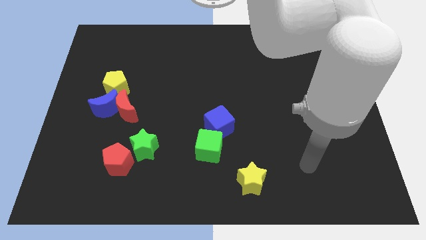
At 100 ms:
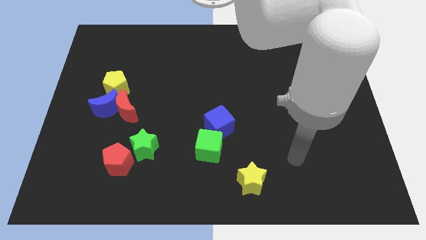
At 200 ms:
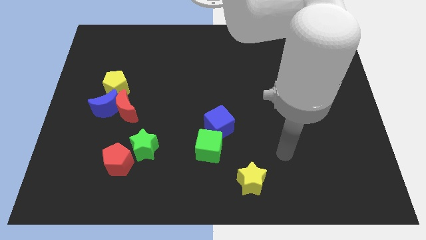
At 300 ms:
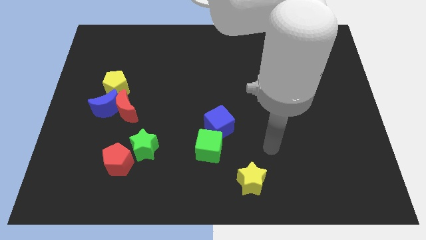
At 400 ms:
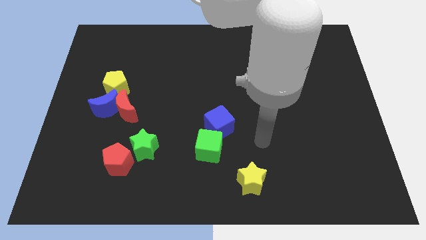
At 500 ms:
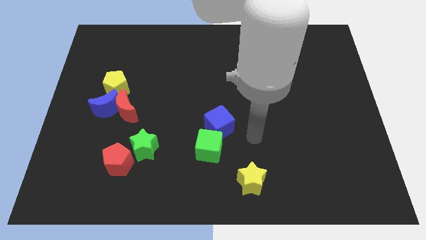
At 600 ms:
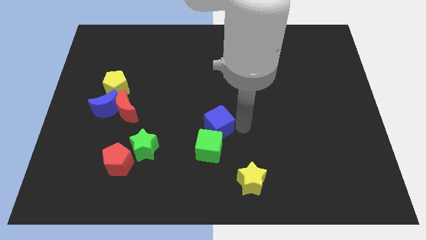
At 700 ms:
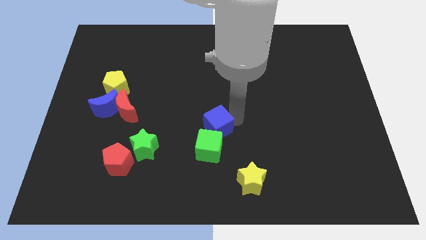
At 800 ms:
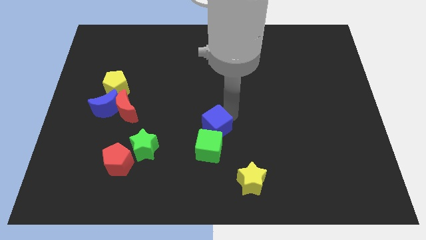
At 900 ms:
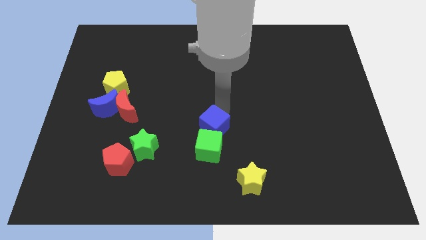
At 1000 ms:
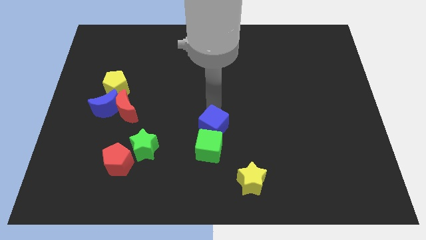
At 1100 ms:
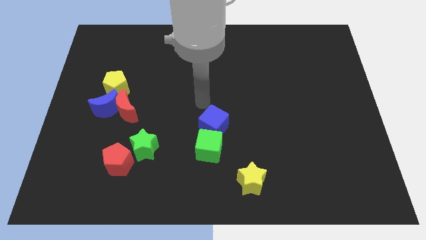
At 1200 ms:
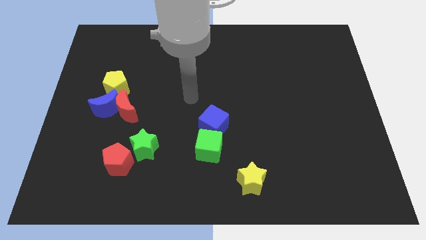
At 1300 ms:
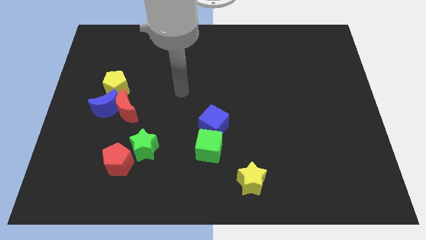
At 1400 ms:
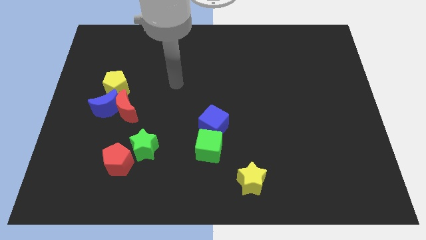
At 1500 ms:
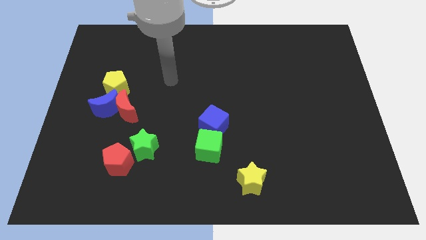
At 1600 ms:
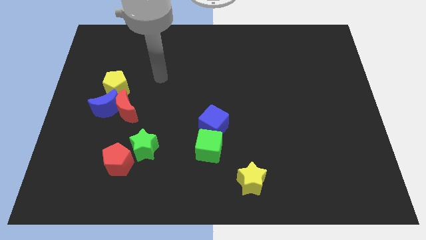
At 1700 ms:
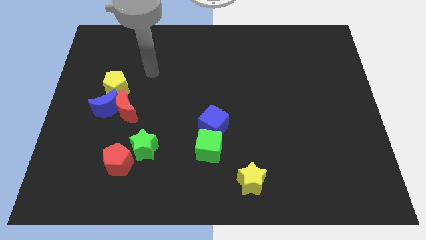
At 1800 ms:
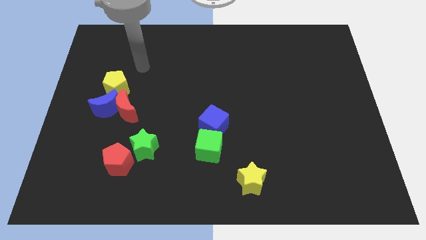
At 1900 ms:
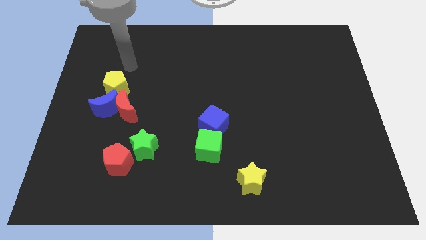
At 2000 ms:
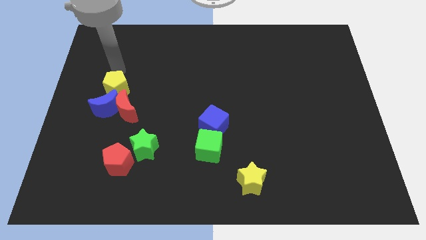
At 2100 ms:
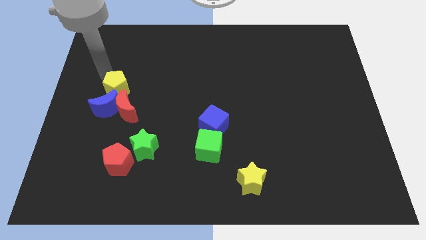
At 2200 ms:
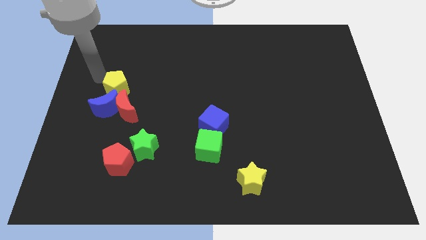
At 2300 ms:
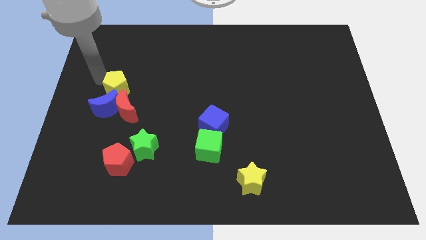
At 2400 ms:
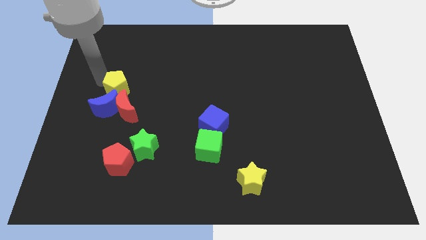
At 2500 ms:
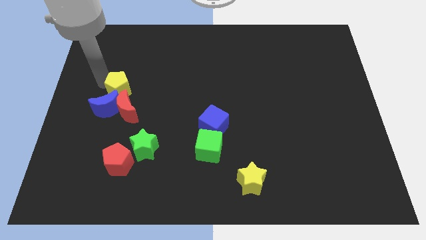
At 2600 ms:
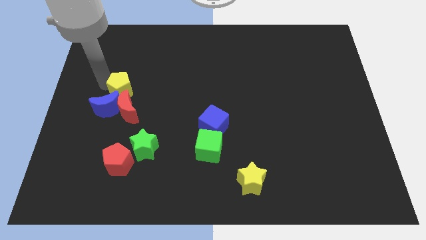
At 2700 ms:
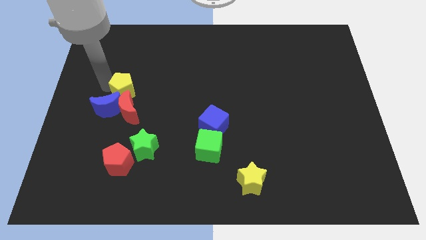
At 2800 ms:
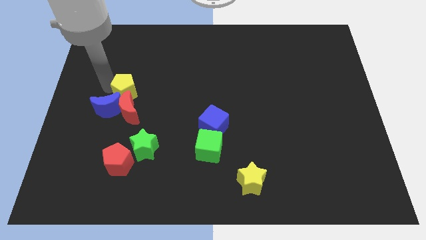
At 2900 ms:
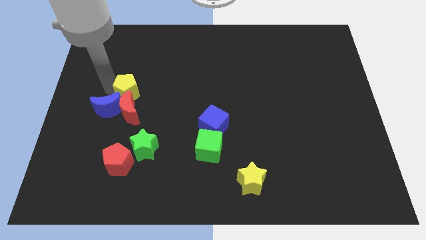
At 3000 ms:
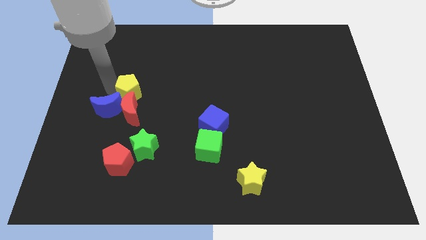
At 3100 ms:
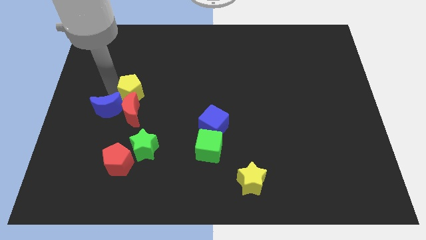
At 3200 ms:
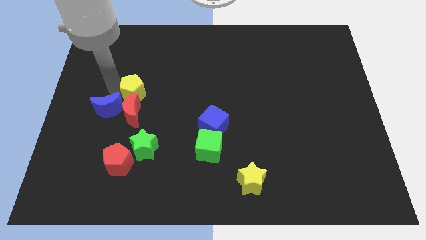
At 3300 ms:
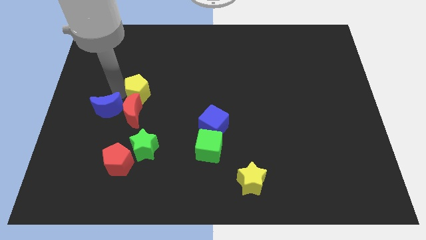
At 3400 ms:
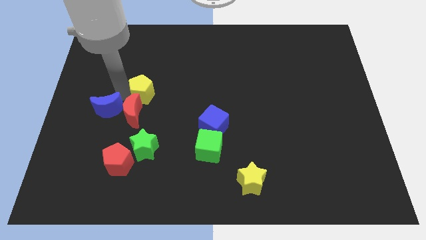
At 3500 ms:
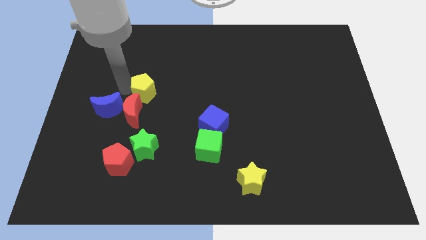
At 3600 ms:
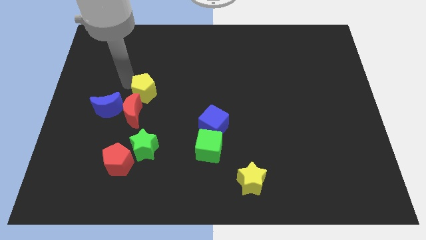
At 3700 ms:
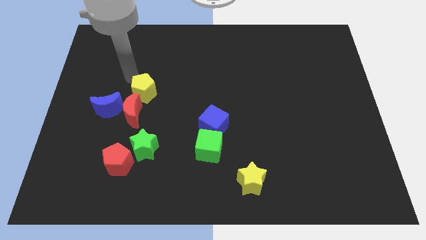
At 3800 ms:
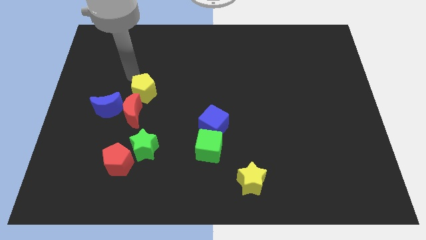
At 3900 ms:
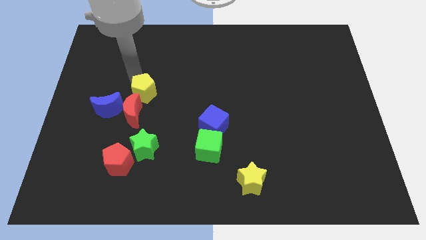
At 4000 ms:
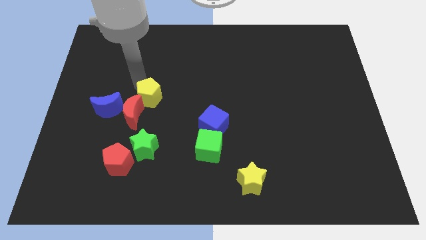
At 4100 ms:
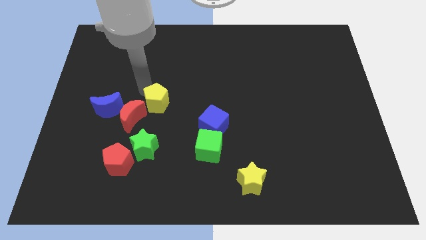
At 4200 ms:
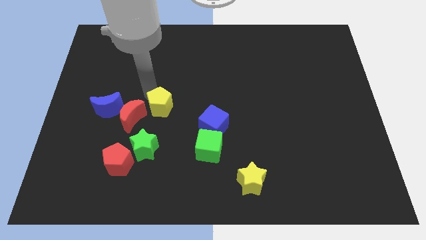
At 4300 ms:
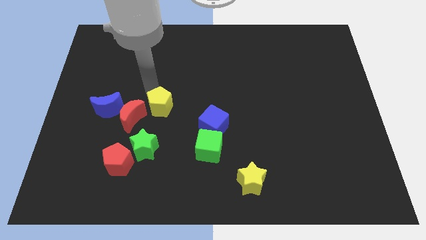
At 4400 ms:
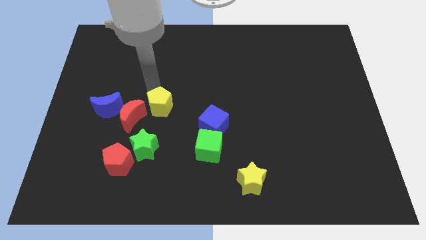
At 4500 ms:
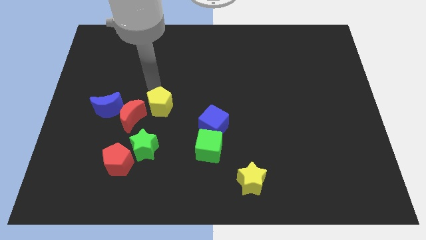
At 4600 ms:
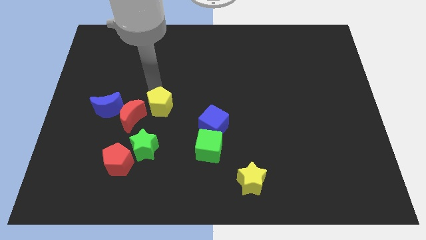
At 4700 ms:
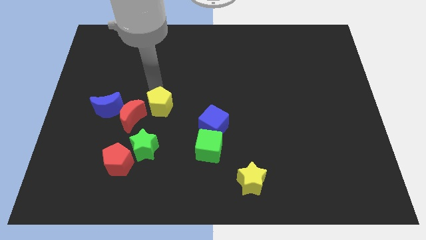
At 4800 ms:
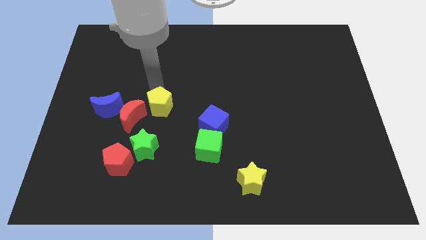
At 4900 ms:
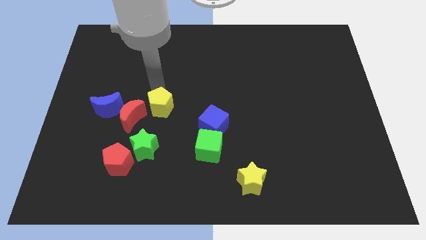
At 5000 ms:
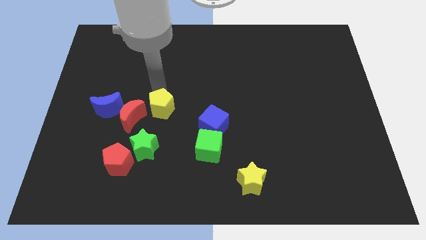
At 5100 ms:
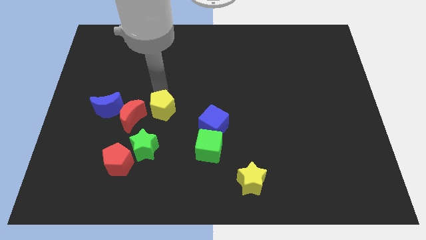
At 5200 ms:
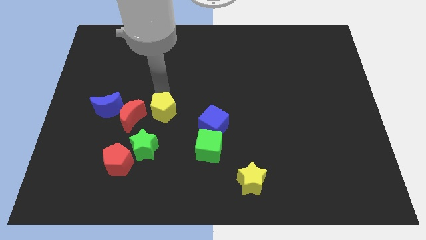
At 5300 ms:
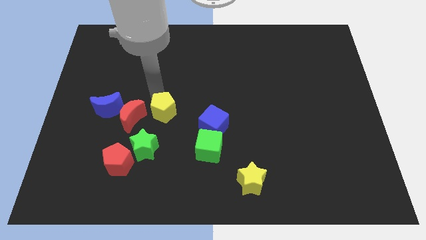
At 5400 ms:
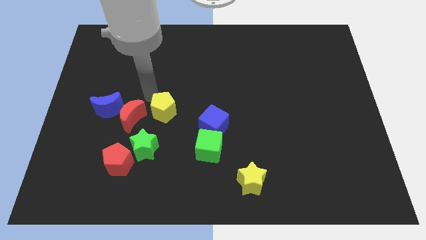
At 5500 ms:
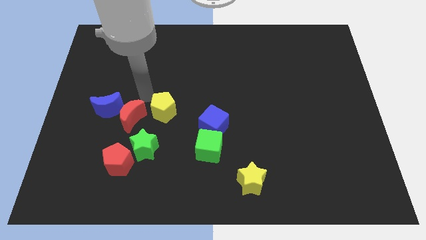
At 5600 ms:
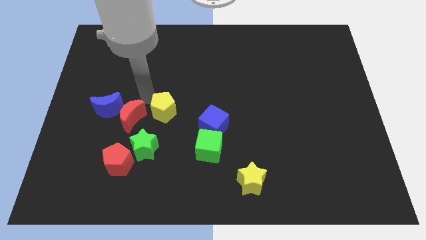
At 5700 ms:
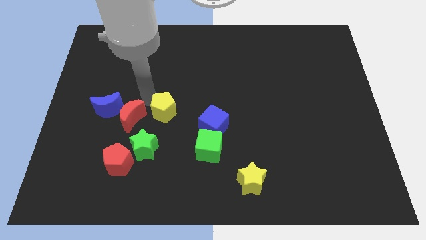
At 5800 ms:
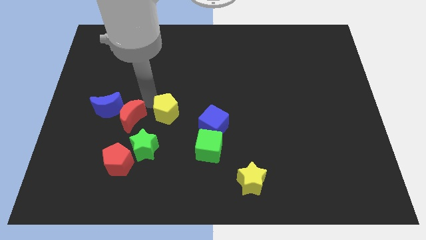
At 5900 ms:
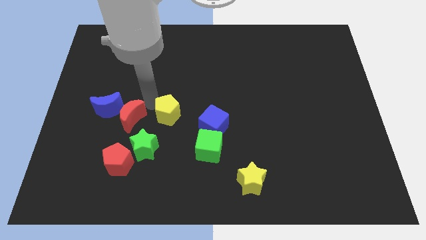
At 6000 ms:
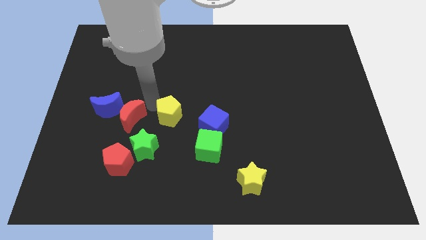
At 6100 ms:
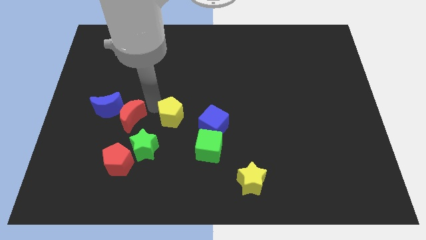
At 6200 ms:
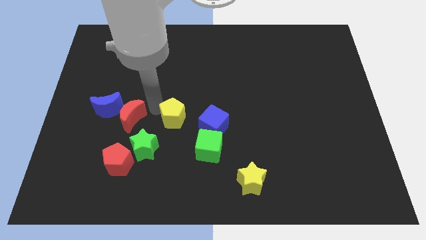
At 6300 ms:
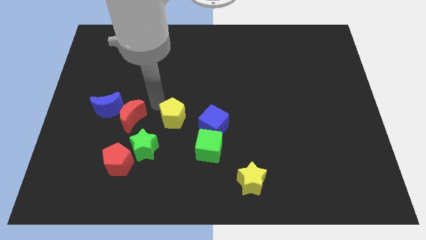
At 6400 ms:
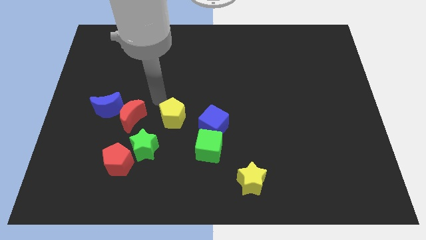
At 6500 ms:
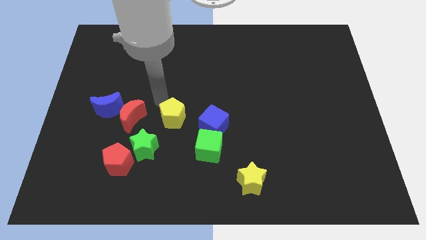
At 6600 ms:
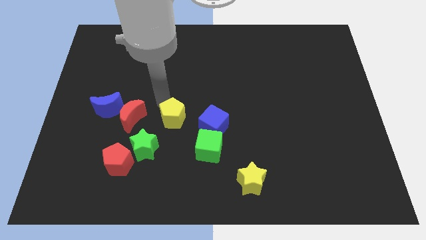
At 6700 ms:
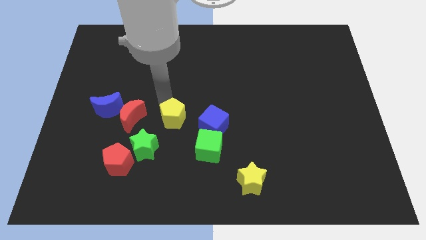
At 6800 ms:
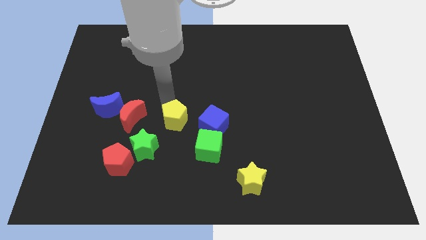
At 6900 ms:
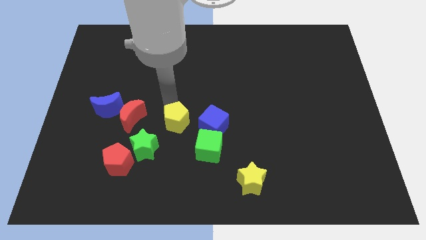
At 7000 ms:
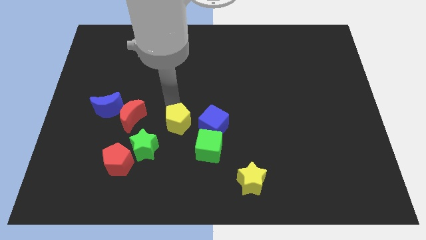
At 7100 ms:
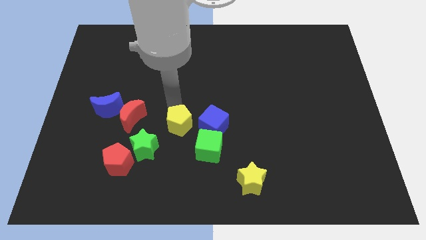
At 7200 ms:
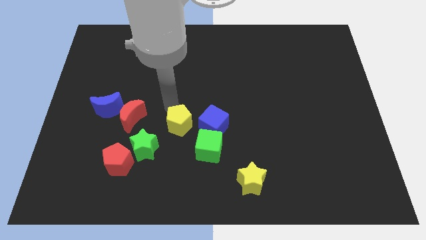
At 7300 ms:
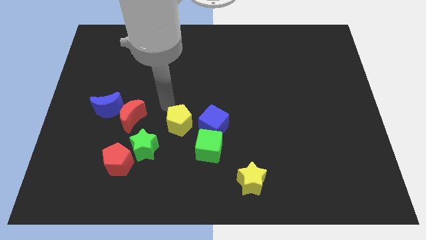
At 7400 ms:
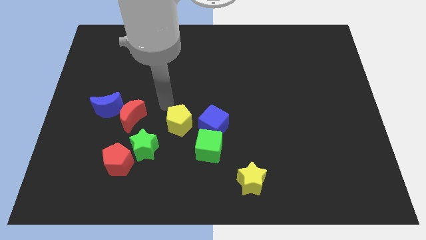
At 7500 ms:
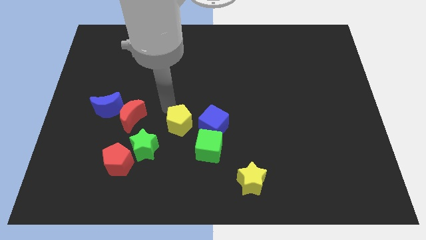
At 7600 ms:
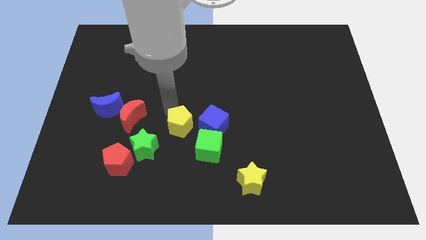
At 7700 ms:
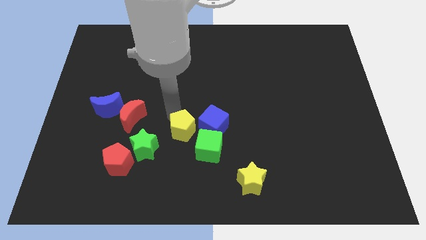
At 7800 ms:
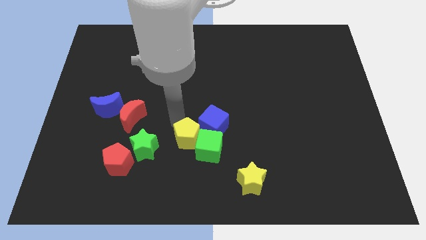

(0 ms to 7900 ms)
push the yellow pentagon towards the green cube
